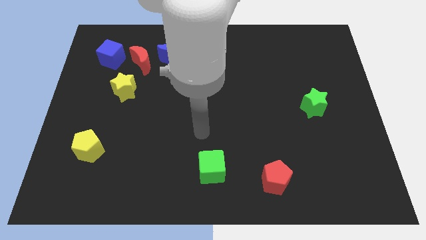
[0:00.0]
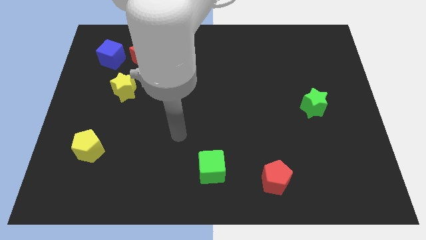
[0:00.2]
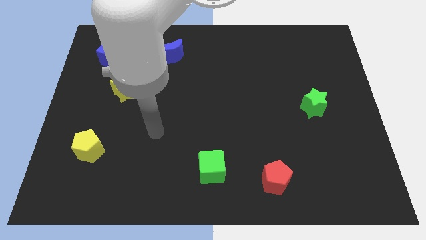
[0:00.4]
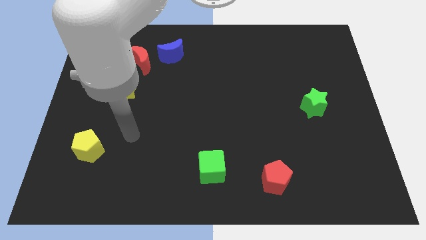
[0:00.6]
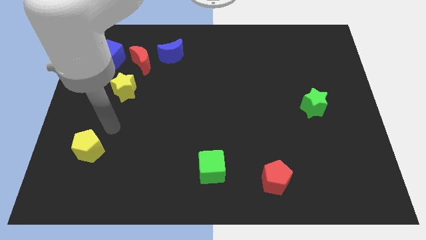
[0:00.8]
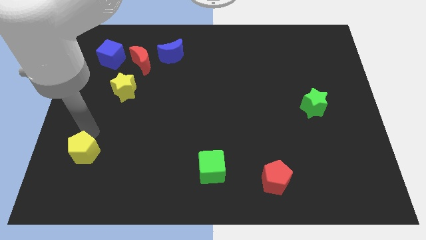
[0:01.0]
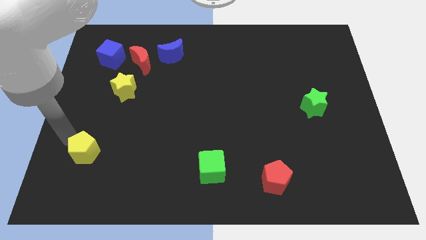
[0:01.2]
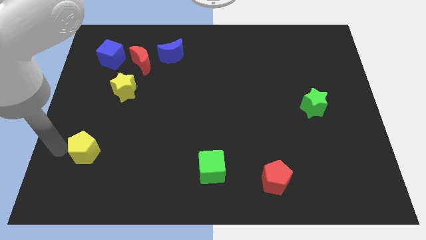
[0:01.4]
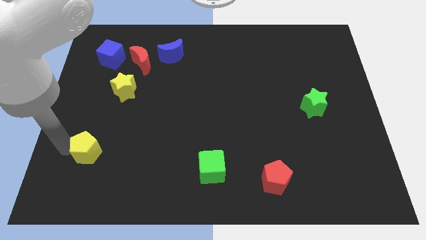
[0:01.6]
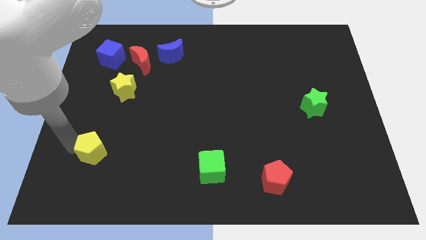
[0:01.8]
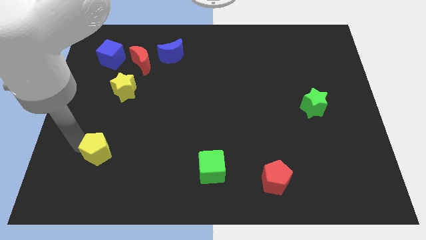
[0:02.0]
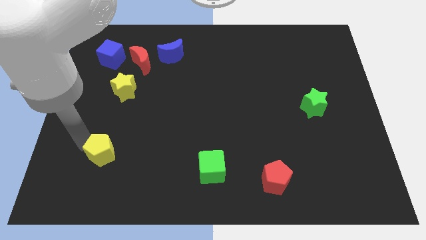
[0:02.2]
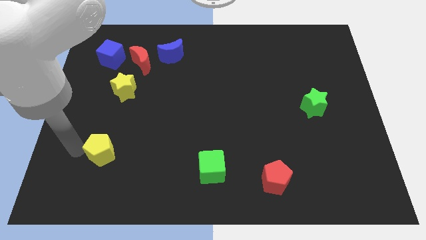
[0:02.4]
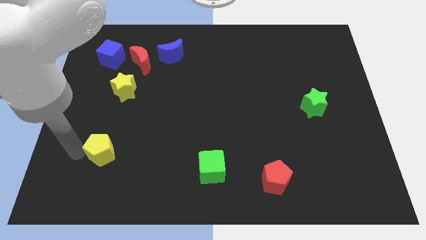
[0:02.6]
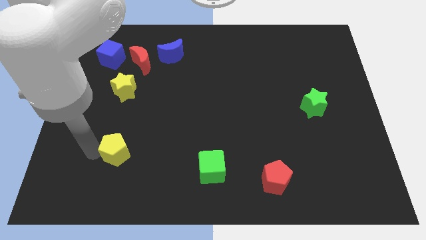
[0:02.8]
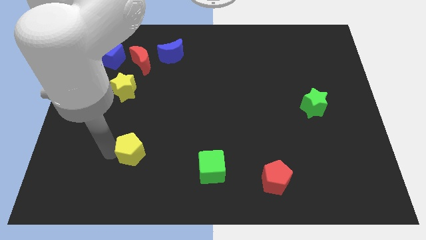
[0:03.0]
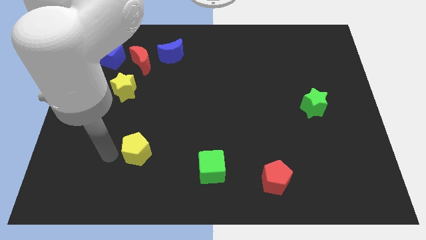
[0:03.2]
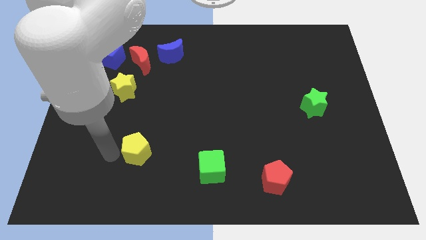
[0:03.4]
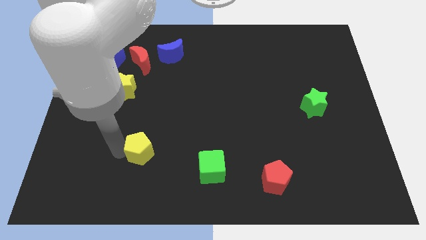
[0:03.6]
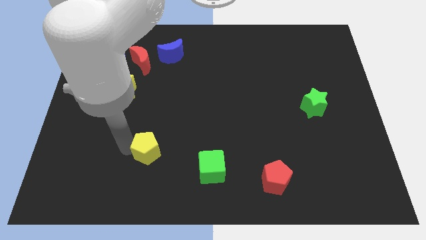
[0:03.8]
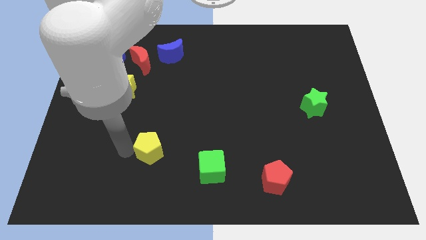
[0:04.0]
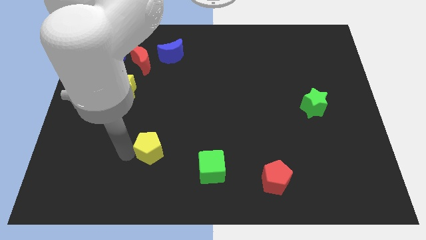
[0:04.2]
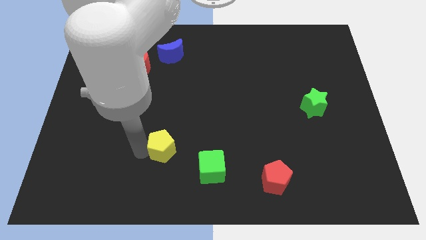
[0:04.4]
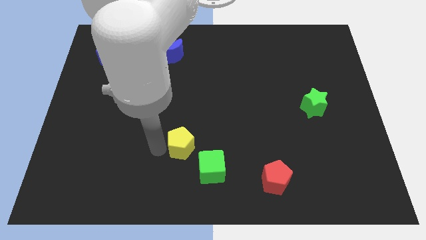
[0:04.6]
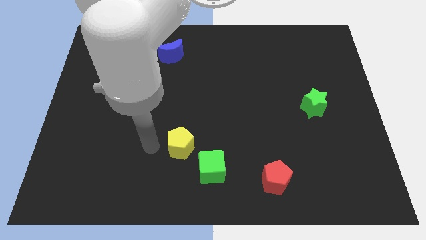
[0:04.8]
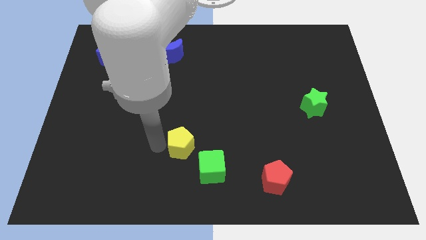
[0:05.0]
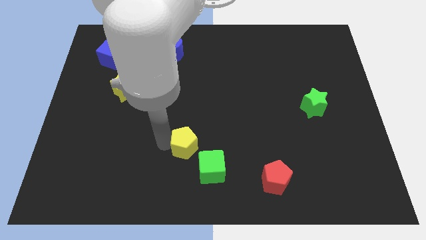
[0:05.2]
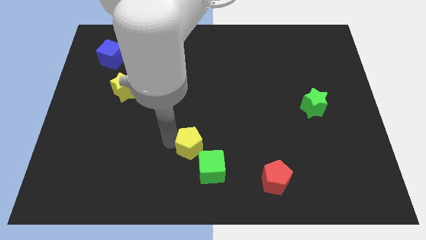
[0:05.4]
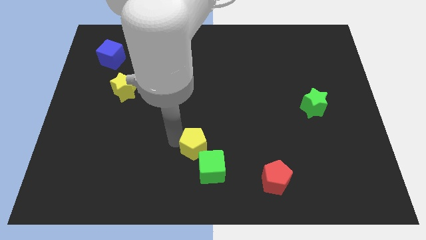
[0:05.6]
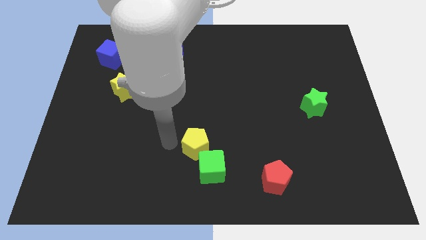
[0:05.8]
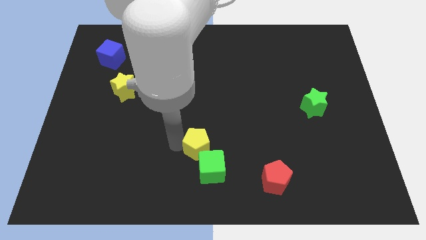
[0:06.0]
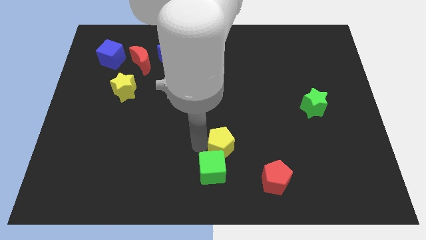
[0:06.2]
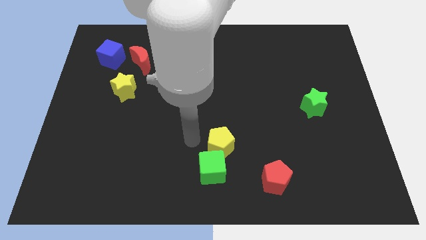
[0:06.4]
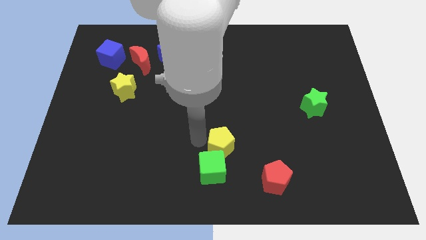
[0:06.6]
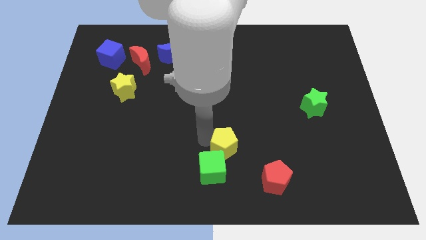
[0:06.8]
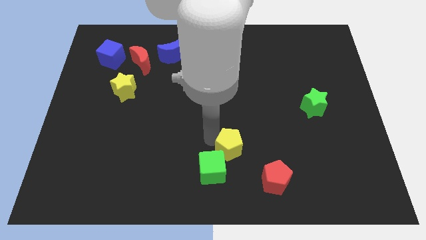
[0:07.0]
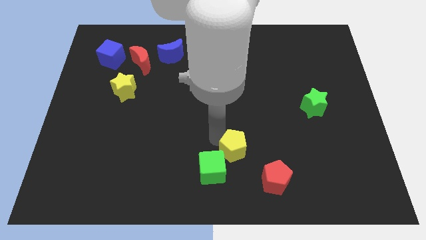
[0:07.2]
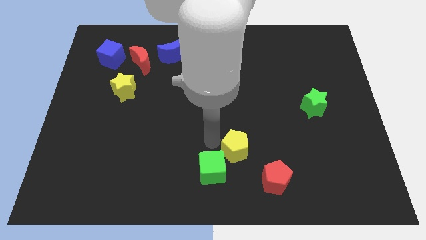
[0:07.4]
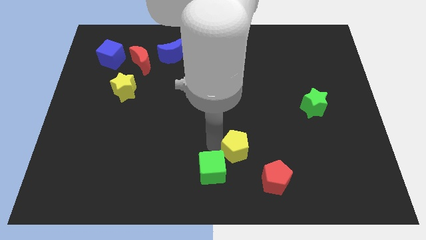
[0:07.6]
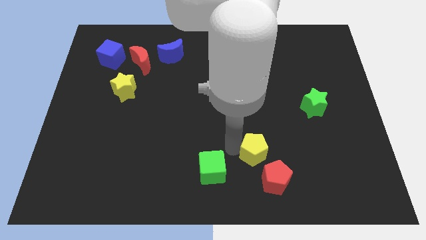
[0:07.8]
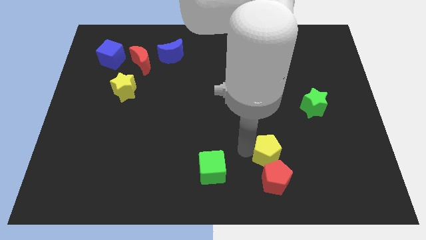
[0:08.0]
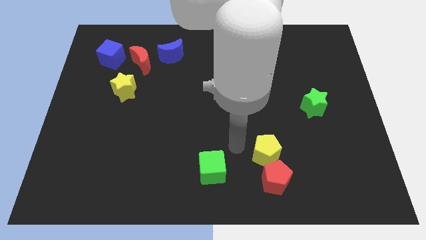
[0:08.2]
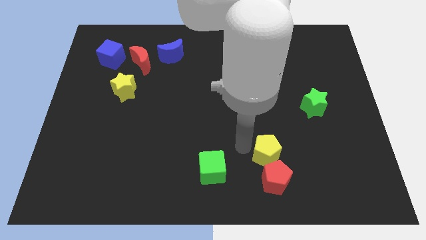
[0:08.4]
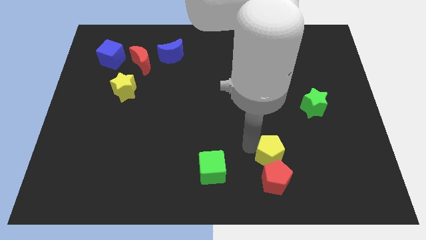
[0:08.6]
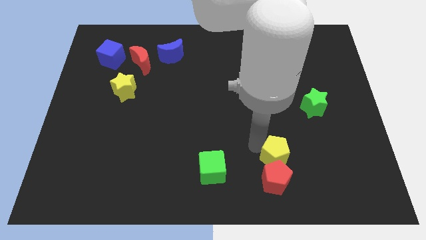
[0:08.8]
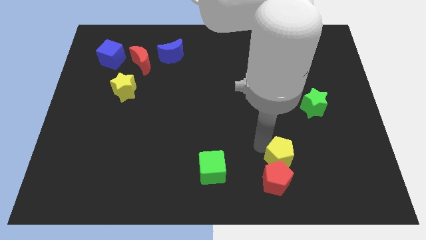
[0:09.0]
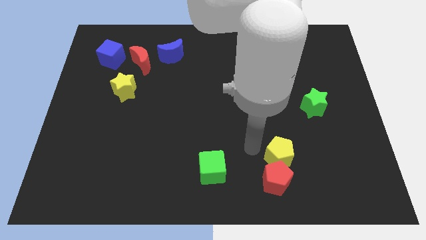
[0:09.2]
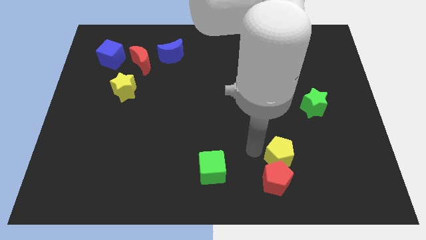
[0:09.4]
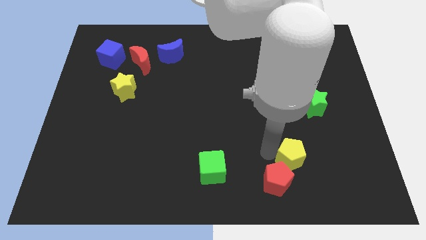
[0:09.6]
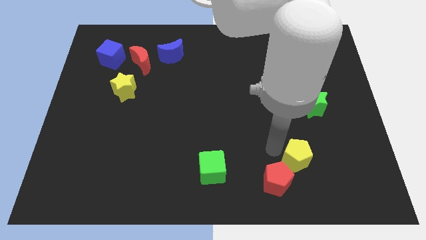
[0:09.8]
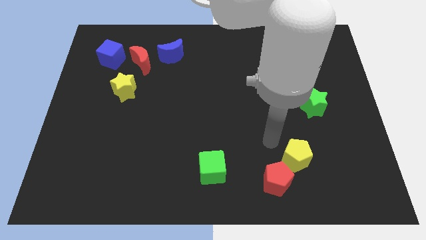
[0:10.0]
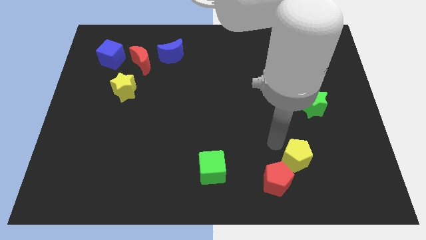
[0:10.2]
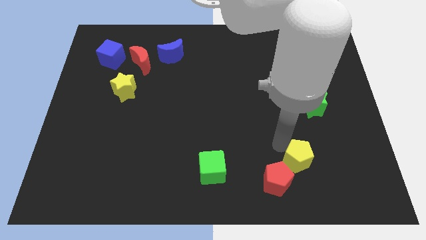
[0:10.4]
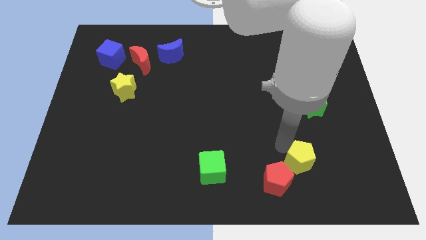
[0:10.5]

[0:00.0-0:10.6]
put the yellow pentagon to the right side of the red pentagon
